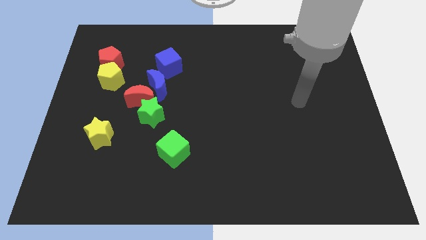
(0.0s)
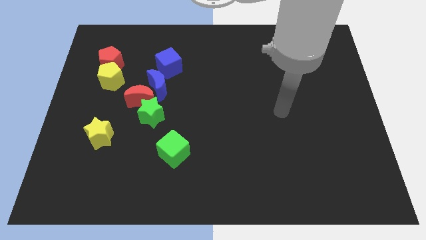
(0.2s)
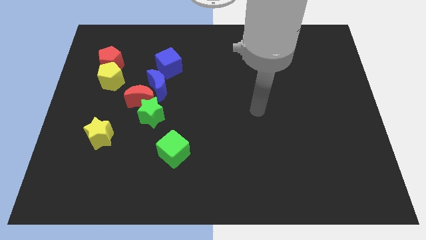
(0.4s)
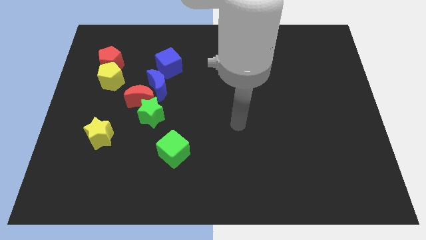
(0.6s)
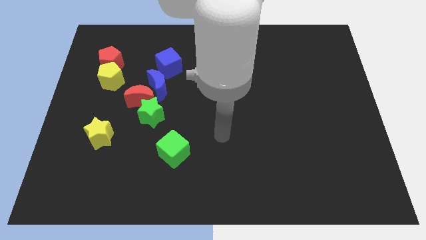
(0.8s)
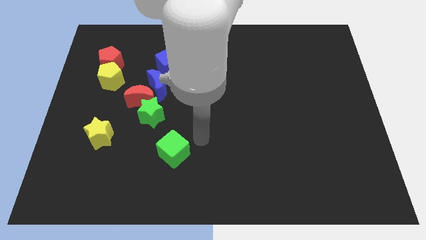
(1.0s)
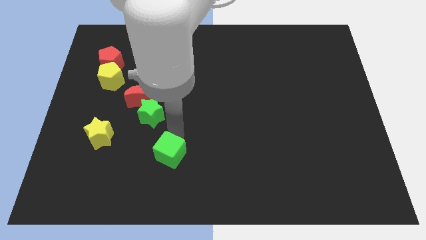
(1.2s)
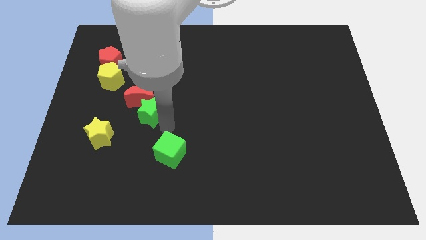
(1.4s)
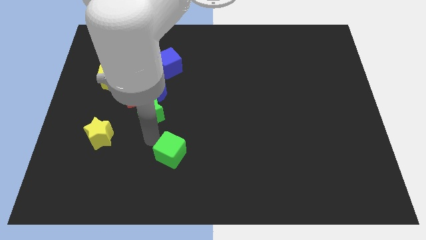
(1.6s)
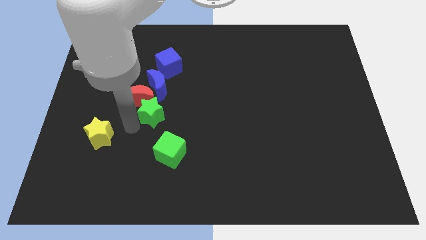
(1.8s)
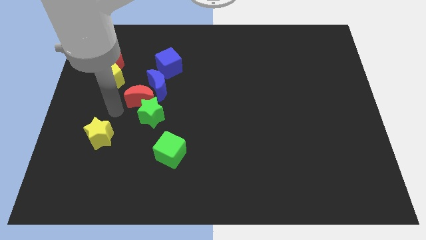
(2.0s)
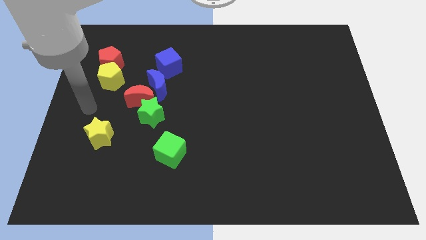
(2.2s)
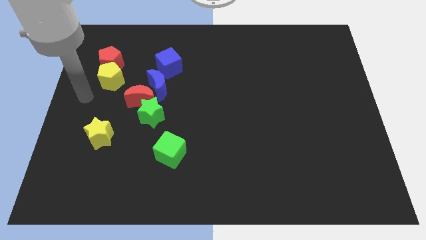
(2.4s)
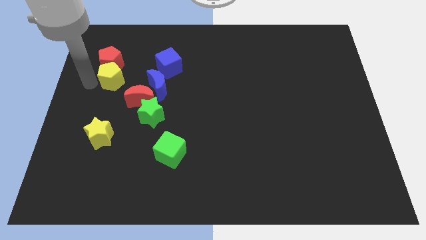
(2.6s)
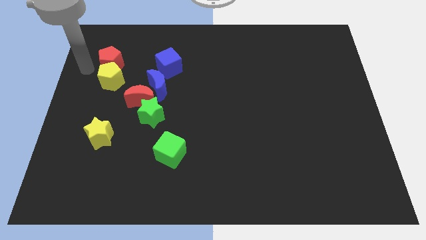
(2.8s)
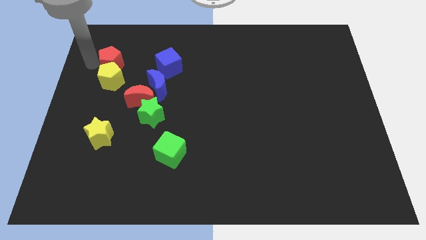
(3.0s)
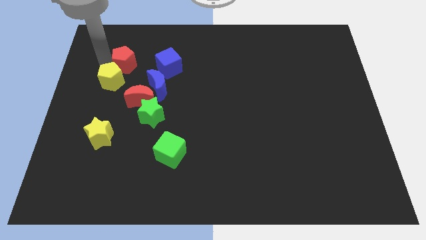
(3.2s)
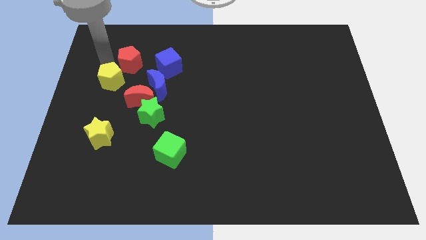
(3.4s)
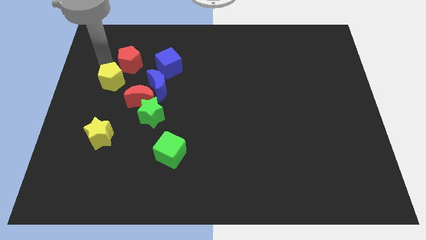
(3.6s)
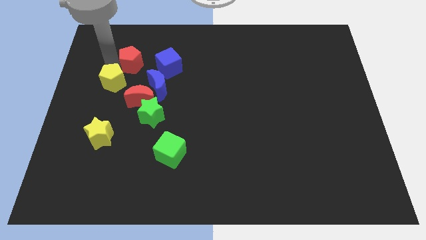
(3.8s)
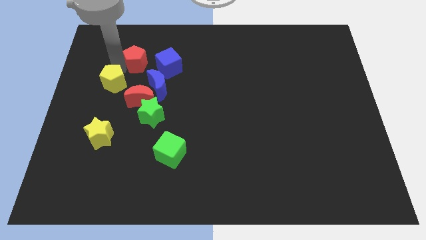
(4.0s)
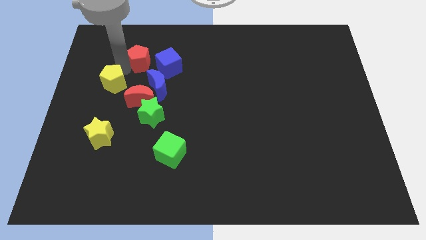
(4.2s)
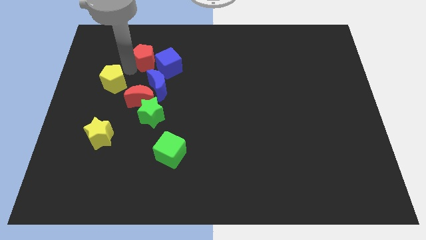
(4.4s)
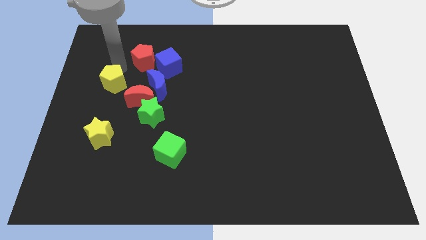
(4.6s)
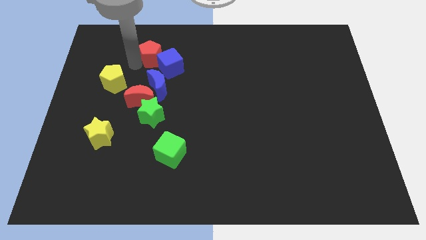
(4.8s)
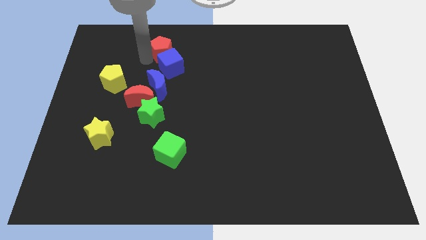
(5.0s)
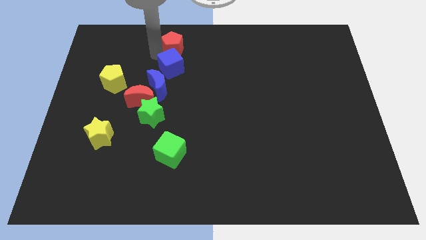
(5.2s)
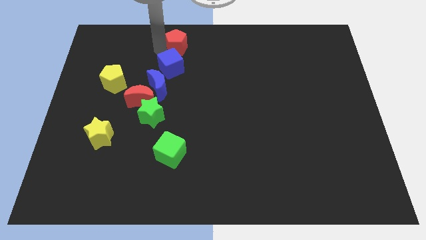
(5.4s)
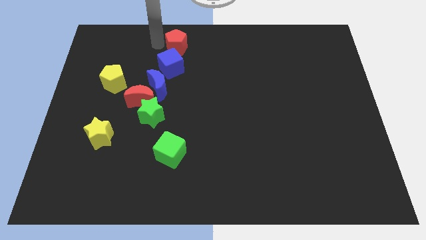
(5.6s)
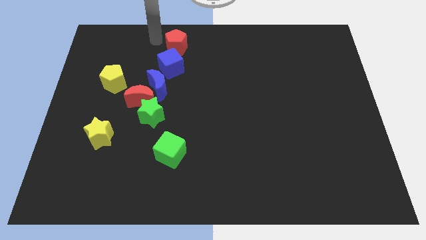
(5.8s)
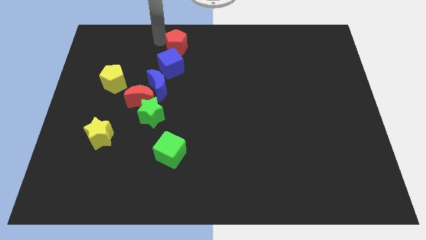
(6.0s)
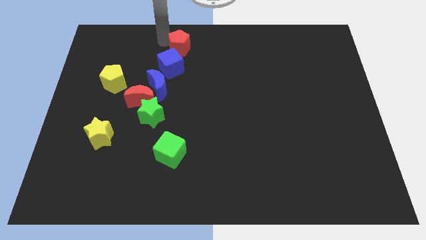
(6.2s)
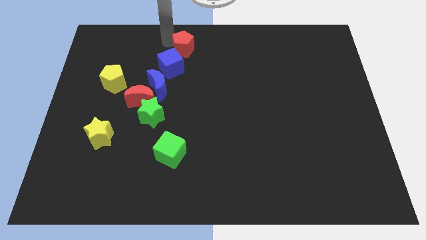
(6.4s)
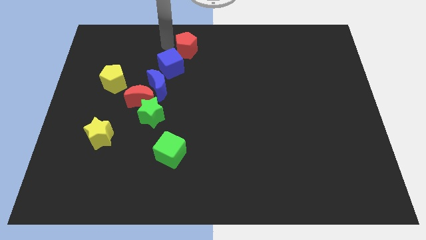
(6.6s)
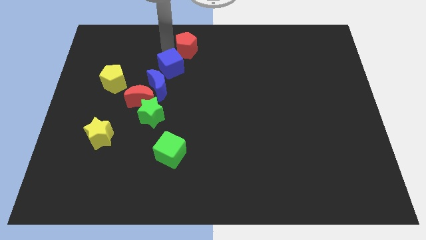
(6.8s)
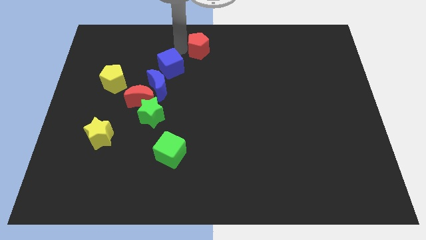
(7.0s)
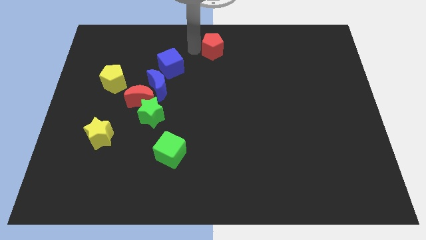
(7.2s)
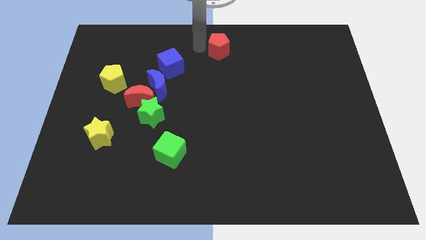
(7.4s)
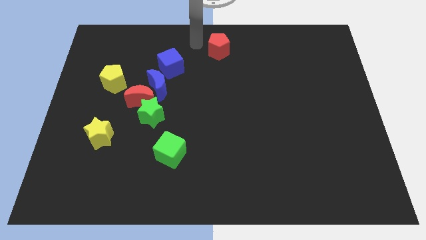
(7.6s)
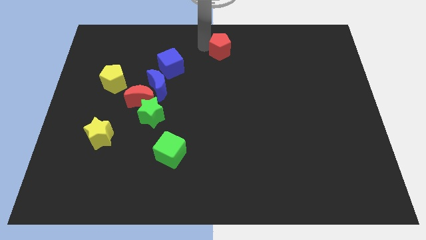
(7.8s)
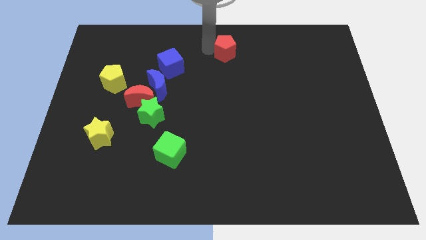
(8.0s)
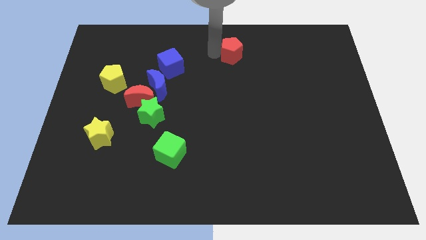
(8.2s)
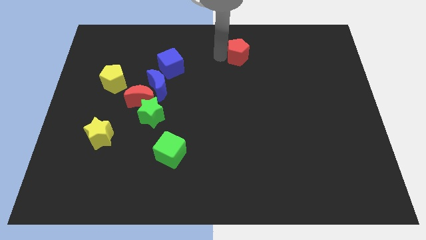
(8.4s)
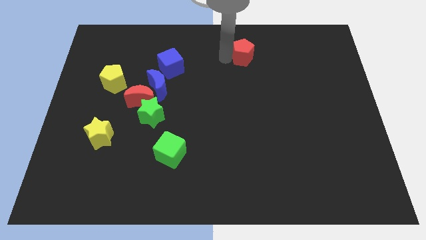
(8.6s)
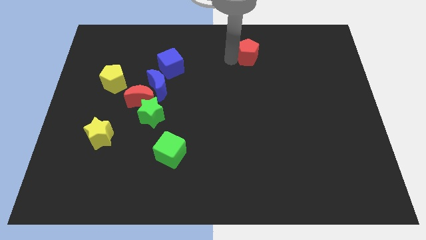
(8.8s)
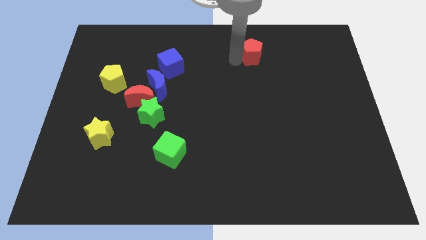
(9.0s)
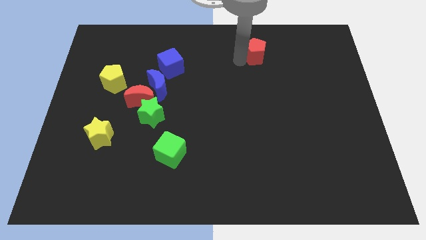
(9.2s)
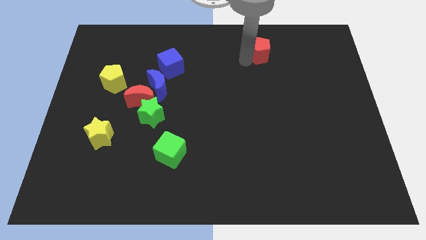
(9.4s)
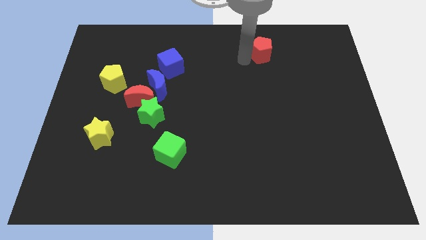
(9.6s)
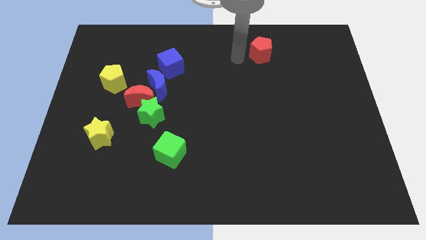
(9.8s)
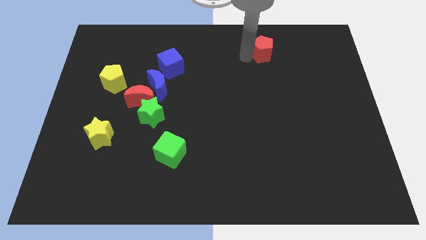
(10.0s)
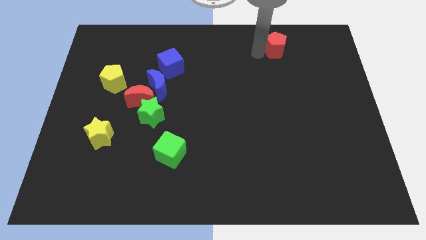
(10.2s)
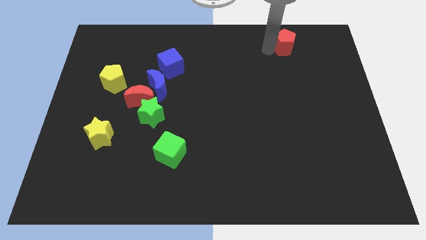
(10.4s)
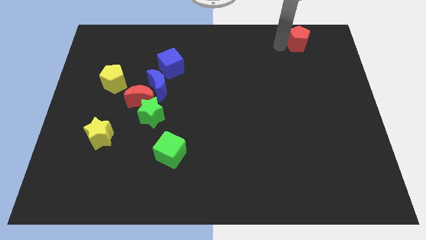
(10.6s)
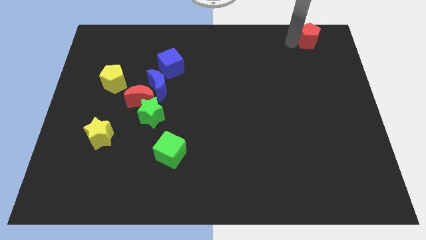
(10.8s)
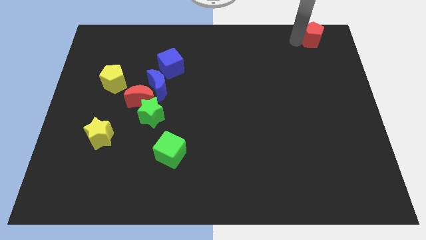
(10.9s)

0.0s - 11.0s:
put the red pentagon to the top right of the board

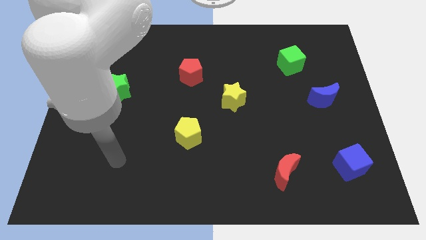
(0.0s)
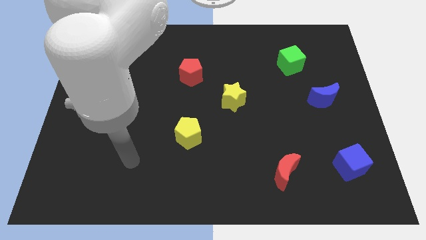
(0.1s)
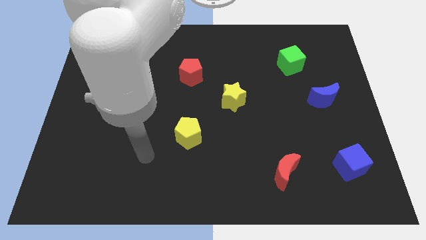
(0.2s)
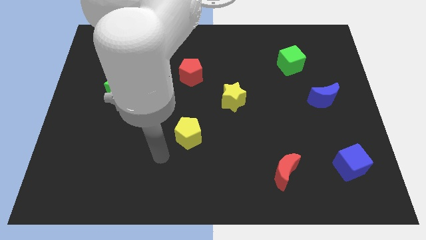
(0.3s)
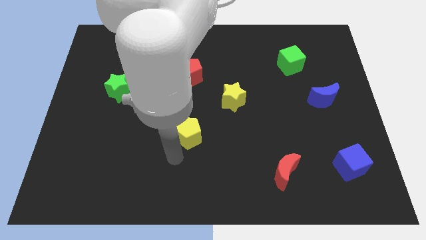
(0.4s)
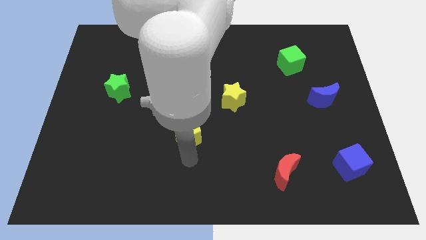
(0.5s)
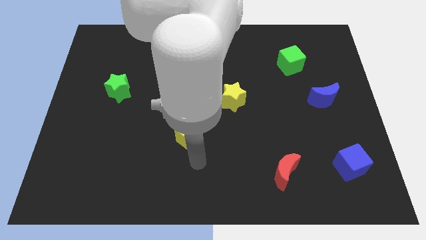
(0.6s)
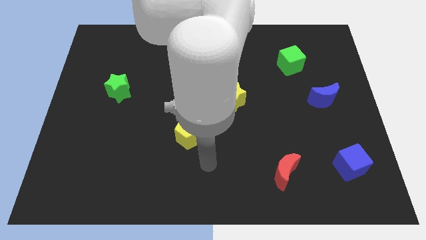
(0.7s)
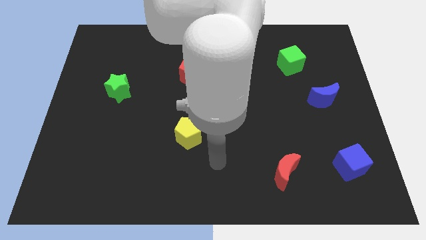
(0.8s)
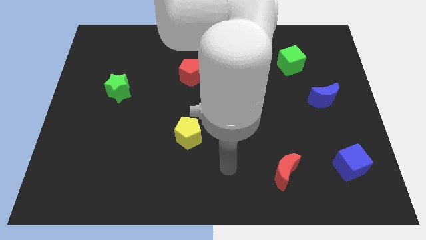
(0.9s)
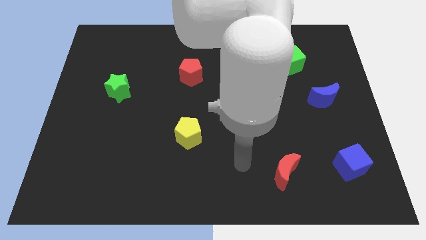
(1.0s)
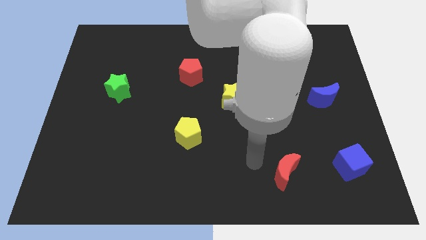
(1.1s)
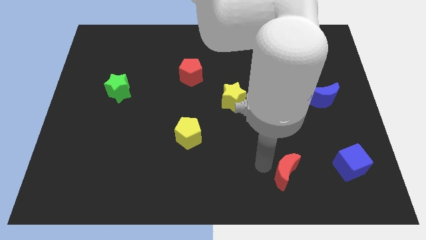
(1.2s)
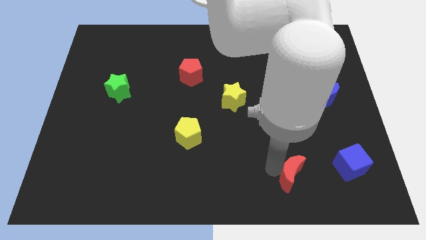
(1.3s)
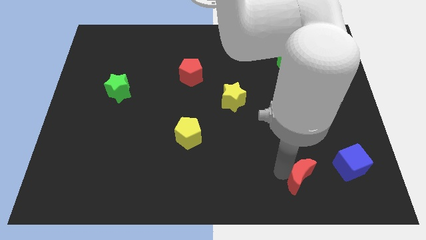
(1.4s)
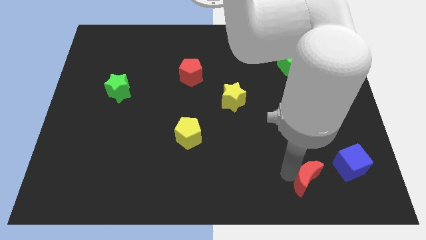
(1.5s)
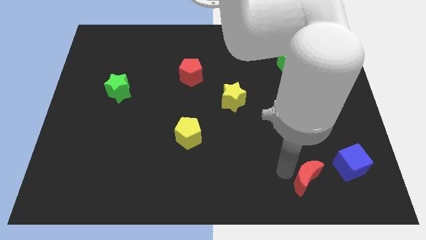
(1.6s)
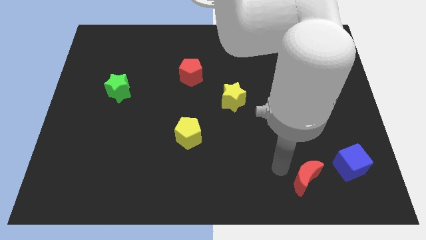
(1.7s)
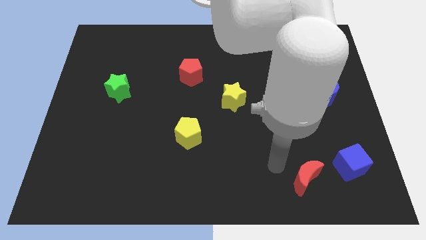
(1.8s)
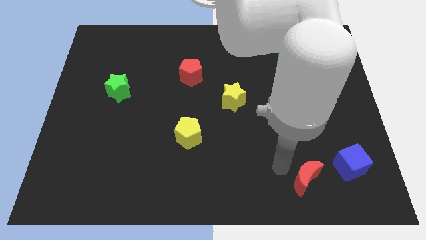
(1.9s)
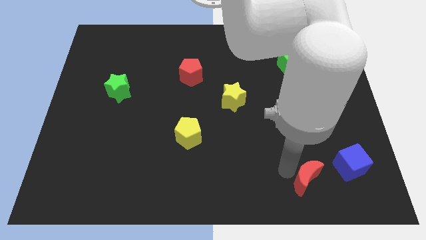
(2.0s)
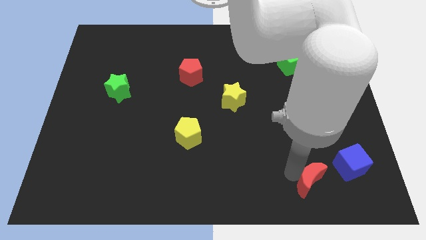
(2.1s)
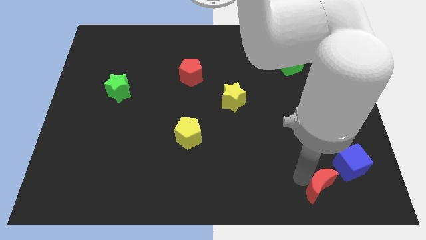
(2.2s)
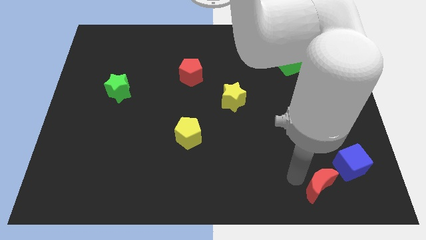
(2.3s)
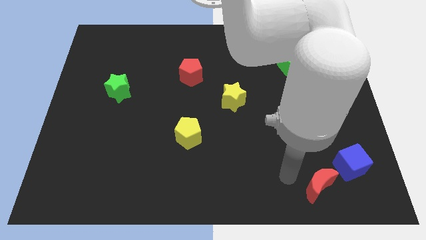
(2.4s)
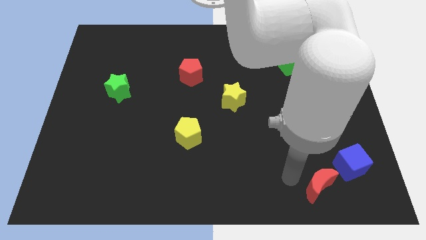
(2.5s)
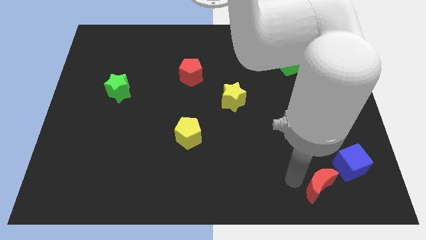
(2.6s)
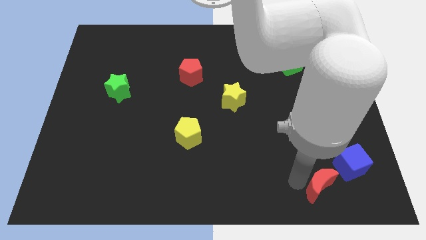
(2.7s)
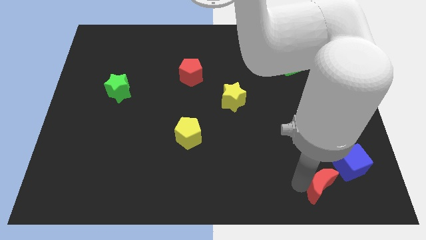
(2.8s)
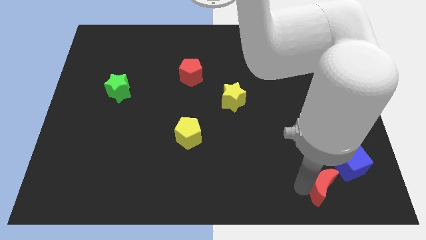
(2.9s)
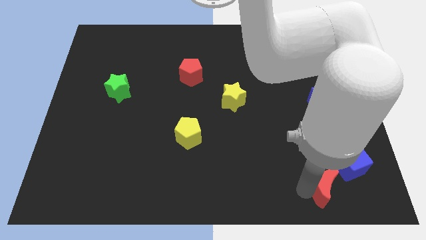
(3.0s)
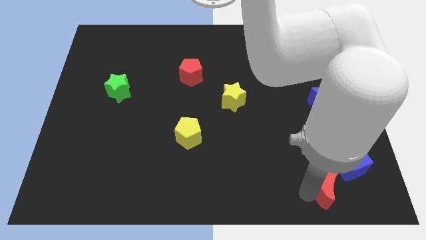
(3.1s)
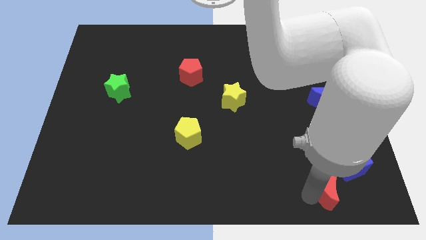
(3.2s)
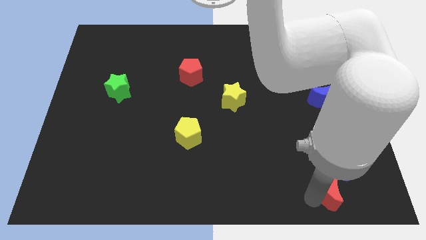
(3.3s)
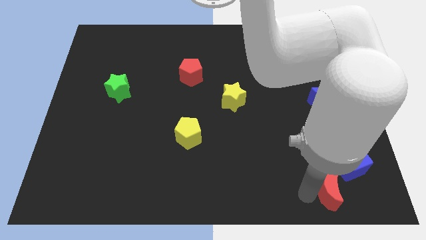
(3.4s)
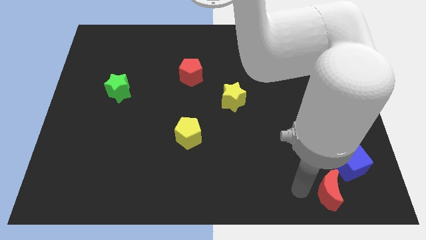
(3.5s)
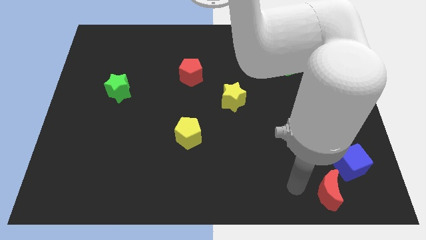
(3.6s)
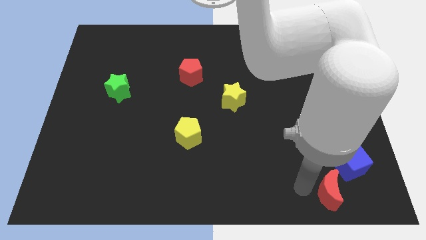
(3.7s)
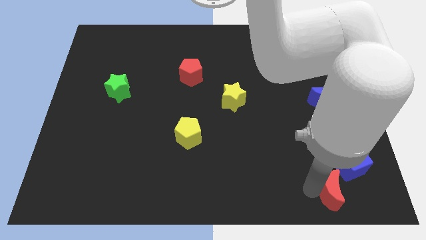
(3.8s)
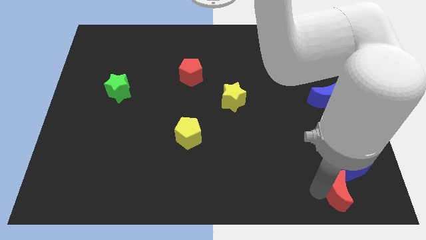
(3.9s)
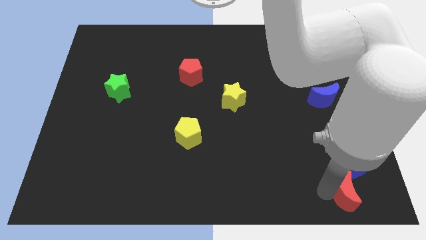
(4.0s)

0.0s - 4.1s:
slide the red moon to the bottom right
